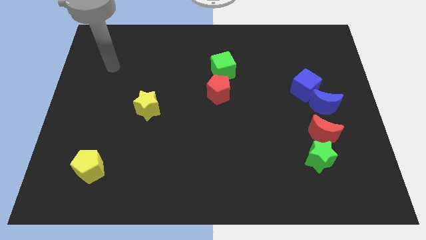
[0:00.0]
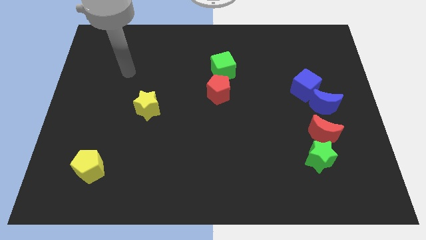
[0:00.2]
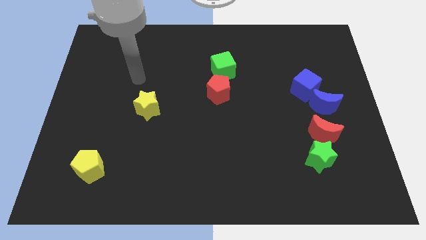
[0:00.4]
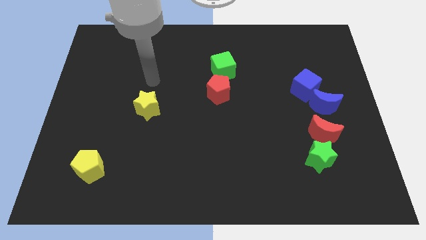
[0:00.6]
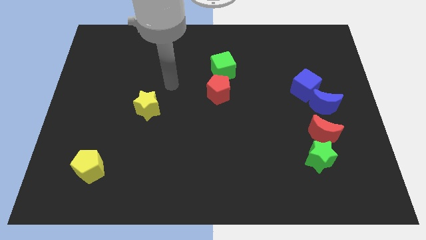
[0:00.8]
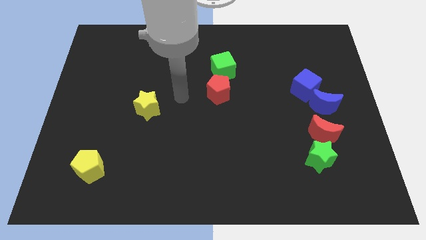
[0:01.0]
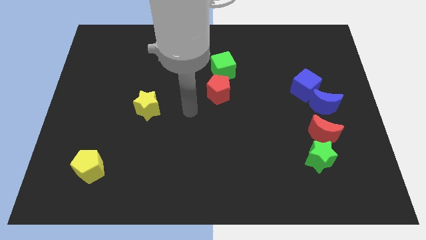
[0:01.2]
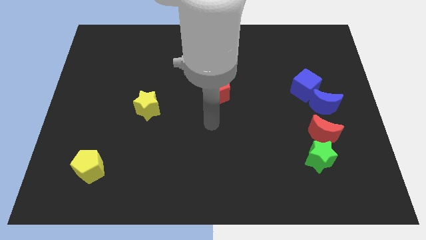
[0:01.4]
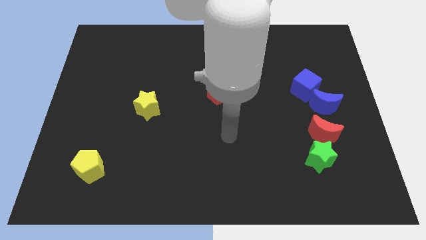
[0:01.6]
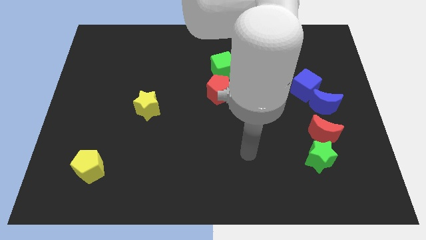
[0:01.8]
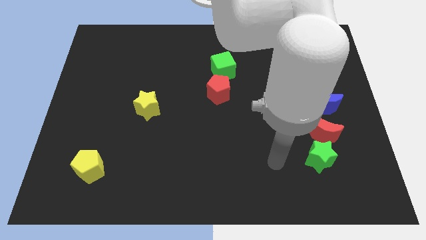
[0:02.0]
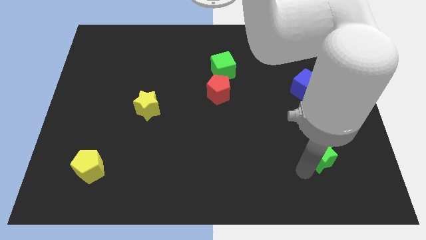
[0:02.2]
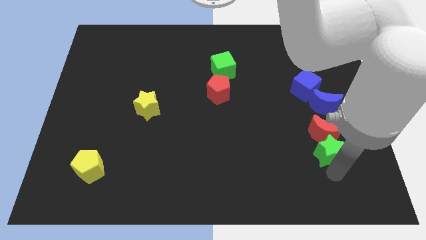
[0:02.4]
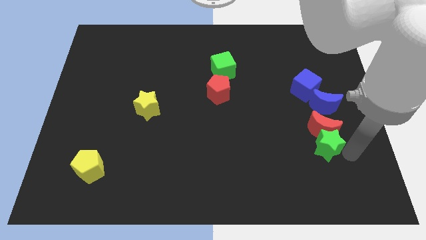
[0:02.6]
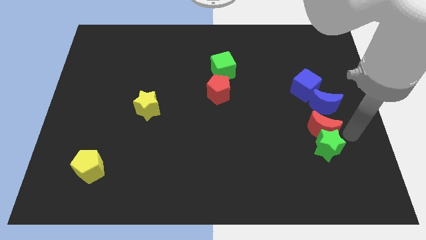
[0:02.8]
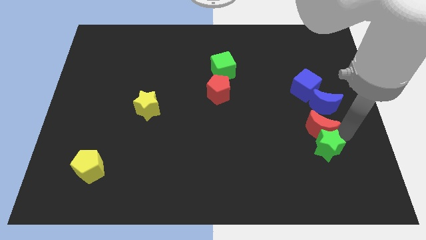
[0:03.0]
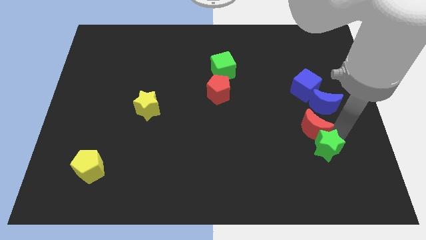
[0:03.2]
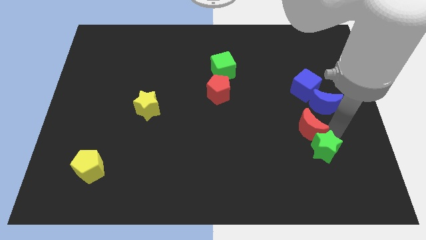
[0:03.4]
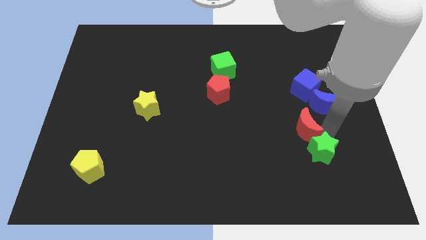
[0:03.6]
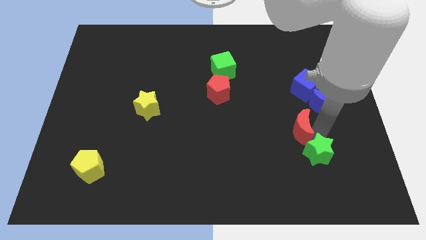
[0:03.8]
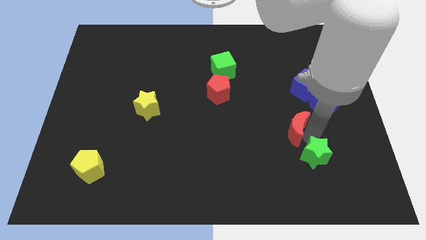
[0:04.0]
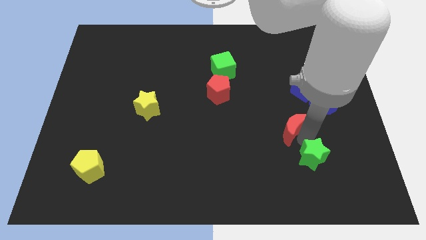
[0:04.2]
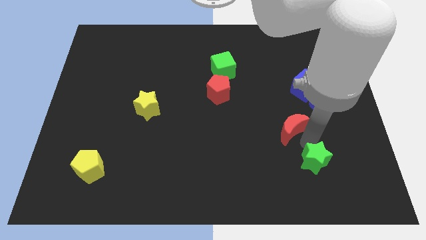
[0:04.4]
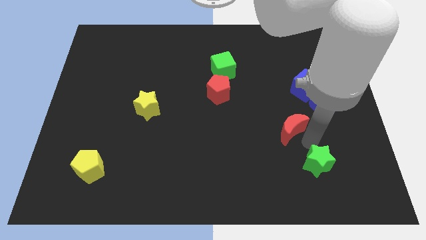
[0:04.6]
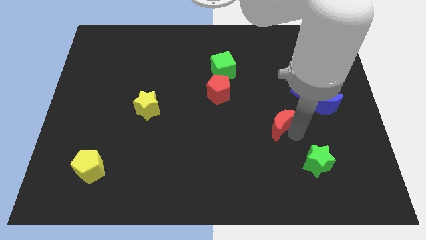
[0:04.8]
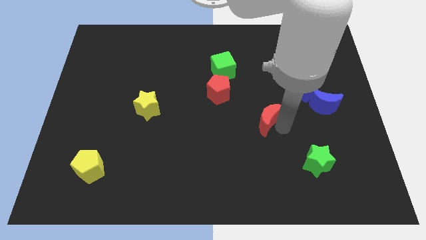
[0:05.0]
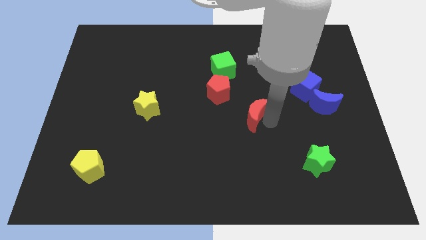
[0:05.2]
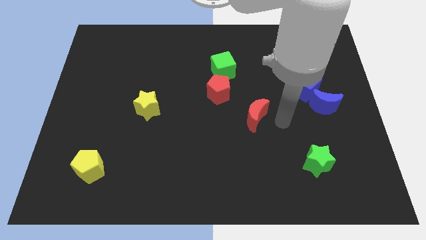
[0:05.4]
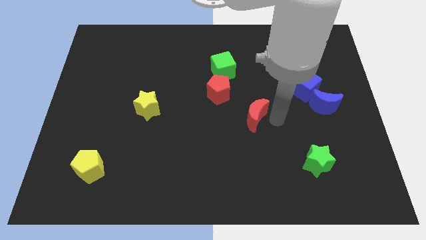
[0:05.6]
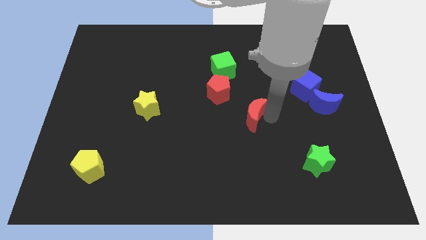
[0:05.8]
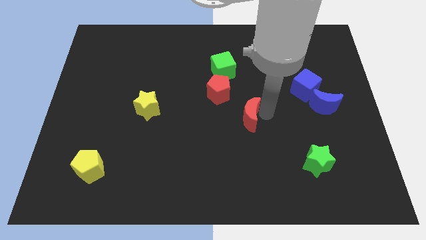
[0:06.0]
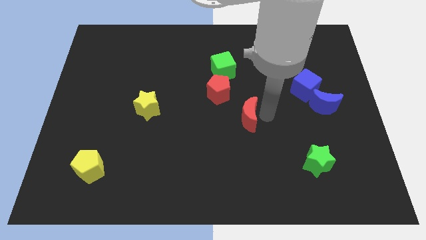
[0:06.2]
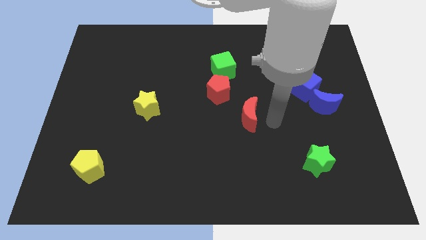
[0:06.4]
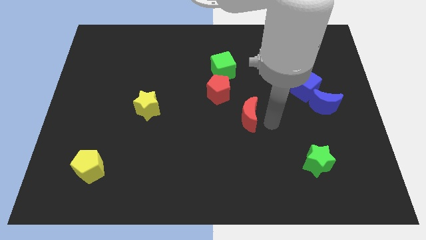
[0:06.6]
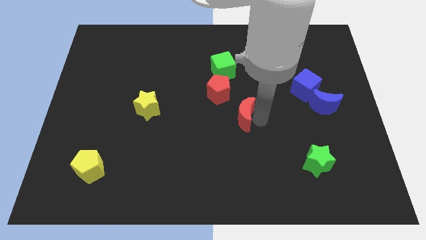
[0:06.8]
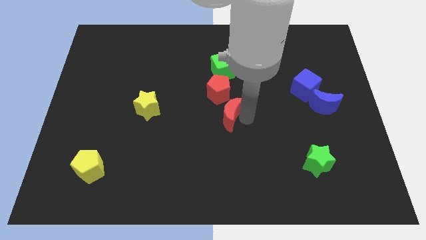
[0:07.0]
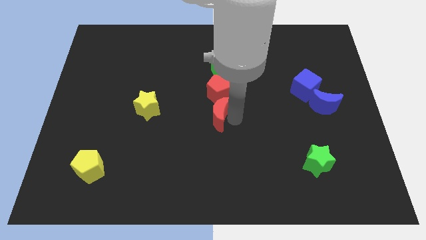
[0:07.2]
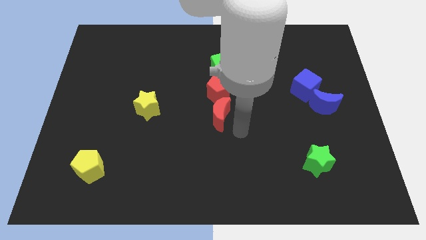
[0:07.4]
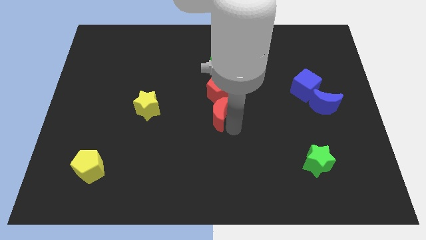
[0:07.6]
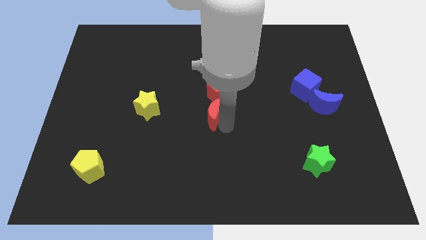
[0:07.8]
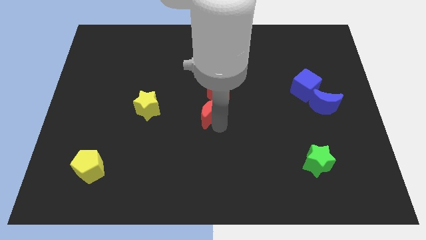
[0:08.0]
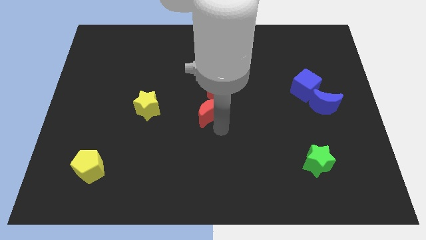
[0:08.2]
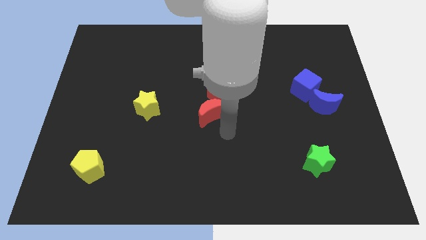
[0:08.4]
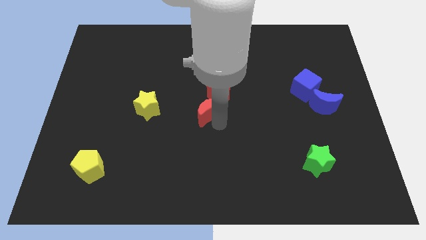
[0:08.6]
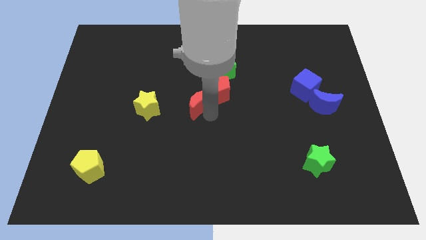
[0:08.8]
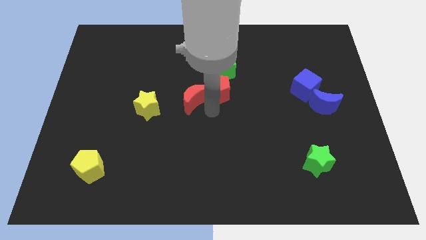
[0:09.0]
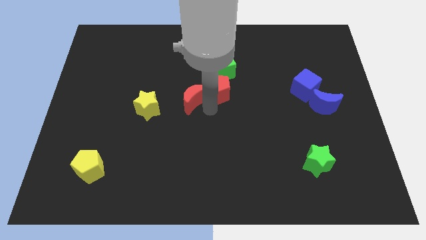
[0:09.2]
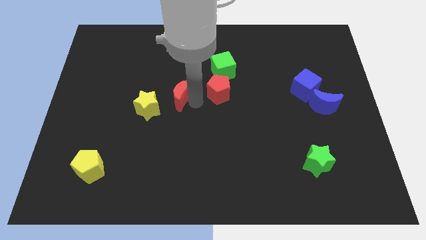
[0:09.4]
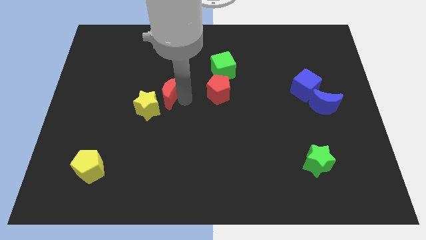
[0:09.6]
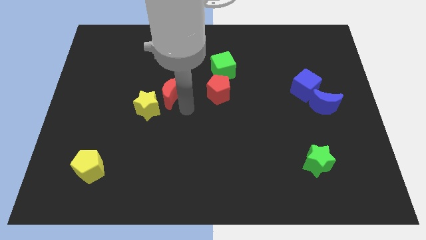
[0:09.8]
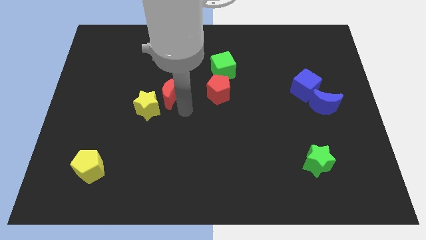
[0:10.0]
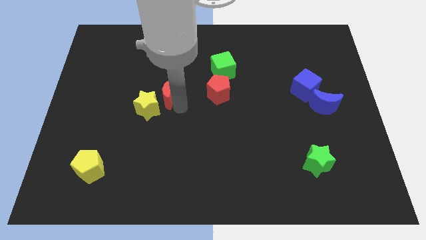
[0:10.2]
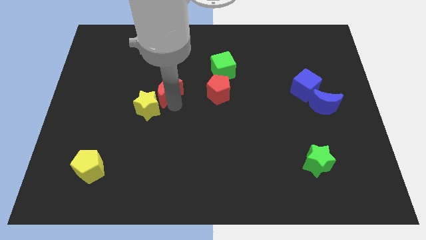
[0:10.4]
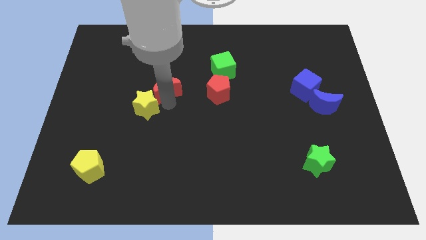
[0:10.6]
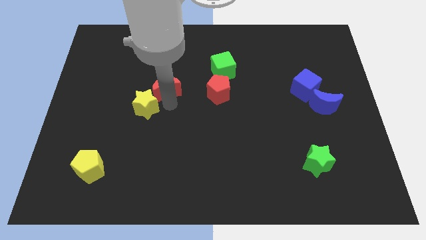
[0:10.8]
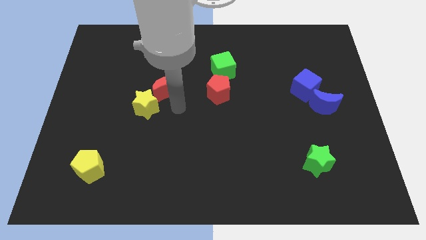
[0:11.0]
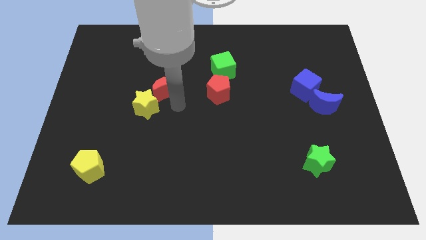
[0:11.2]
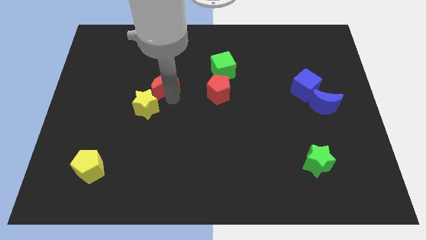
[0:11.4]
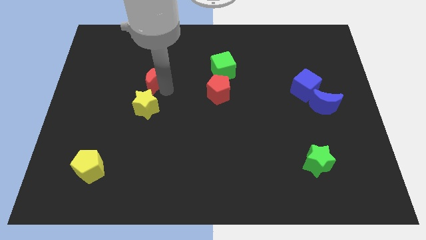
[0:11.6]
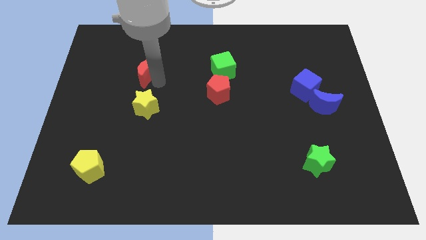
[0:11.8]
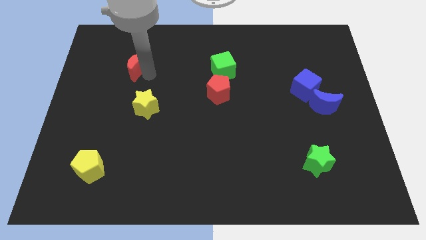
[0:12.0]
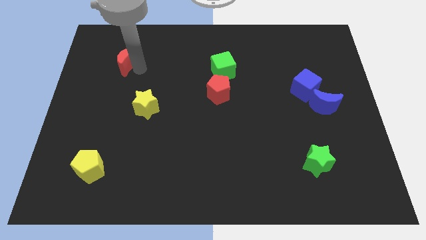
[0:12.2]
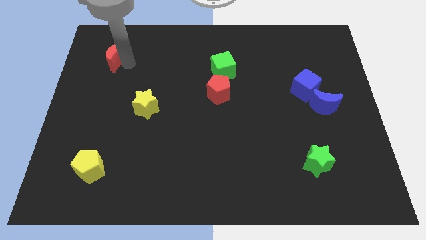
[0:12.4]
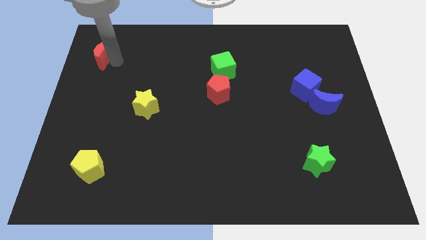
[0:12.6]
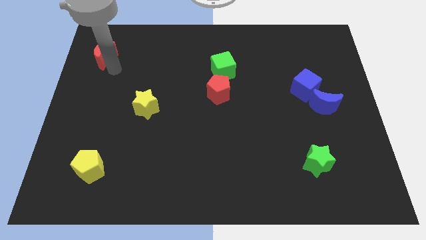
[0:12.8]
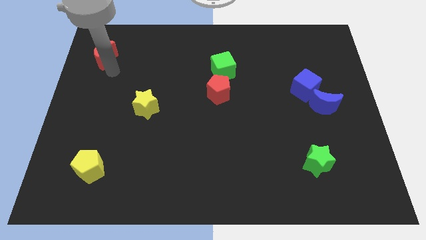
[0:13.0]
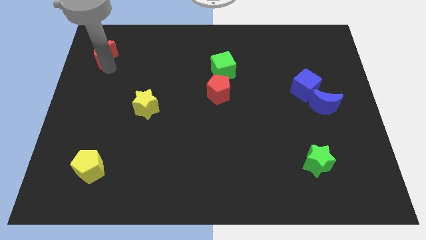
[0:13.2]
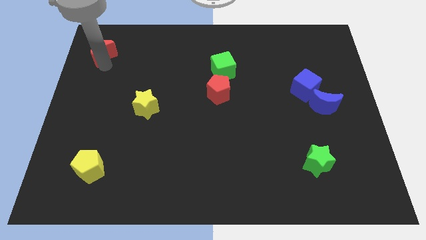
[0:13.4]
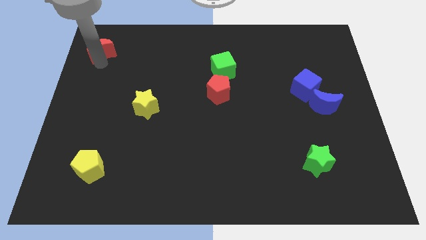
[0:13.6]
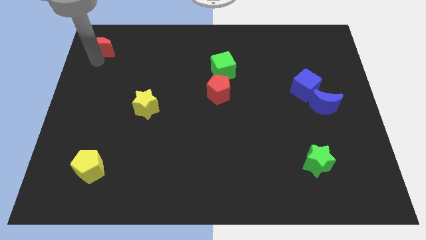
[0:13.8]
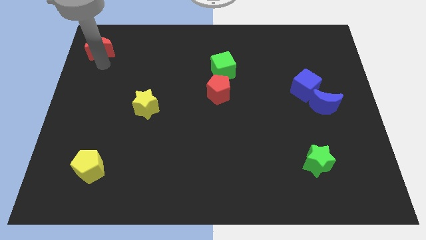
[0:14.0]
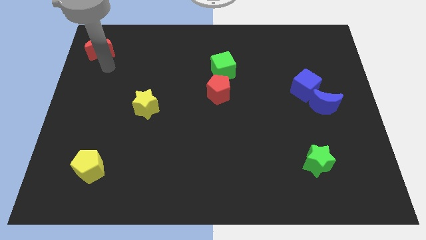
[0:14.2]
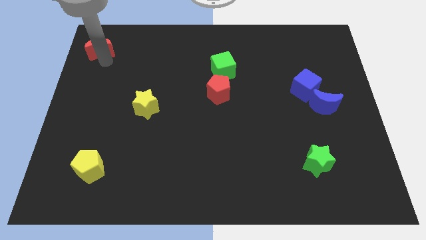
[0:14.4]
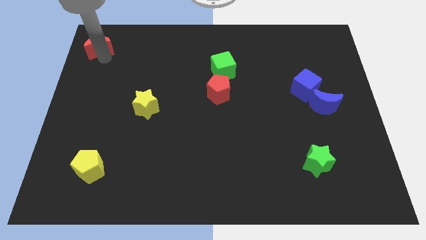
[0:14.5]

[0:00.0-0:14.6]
move the red moon to the top left
